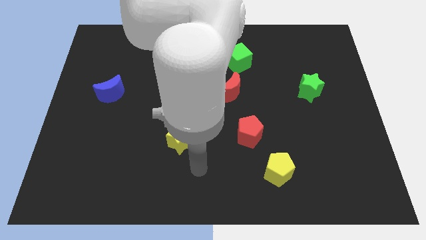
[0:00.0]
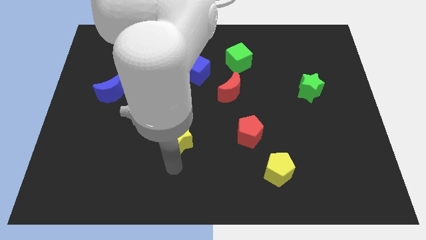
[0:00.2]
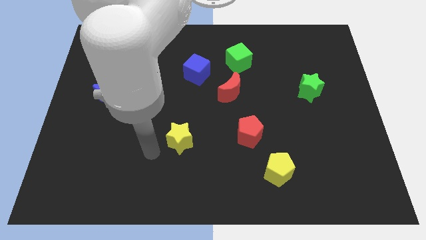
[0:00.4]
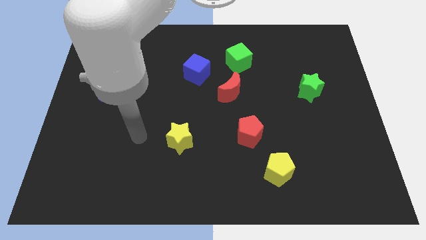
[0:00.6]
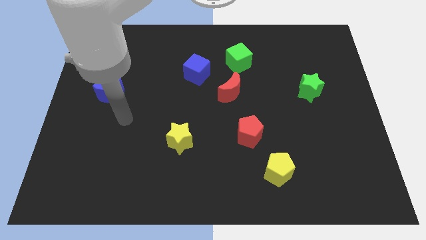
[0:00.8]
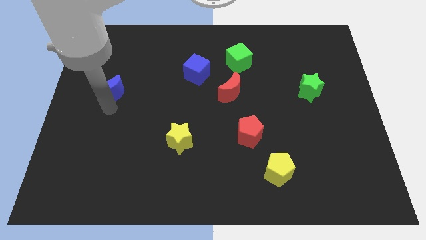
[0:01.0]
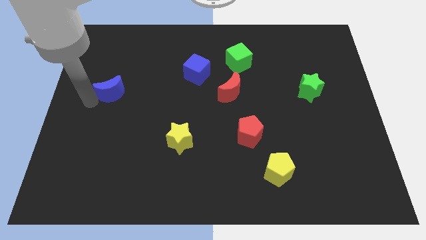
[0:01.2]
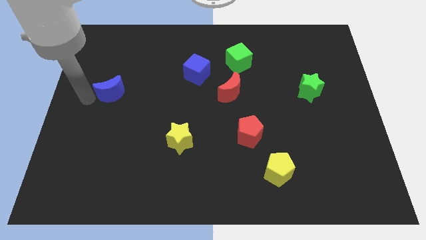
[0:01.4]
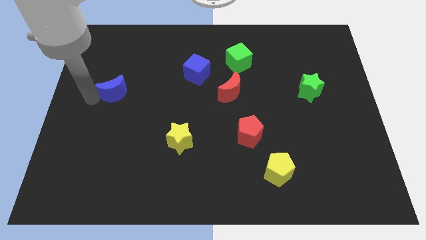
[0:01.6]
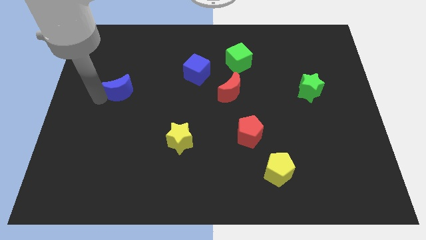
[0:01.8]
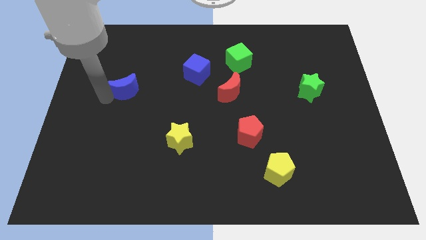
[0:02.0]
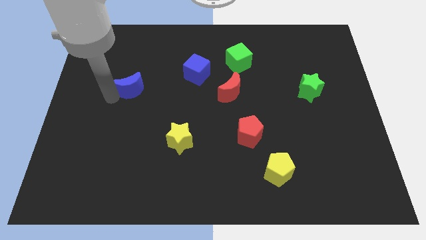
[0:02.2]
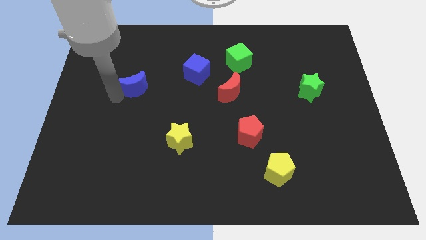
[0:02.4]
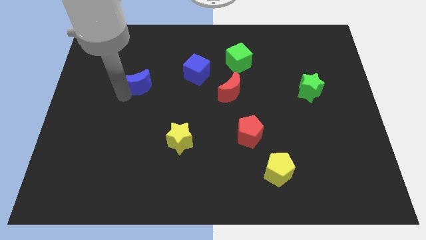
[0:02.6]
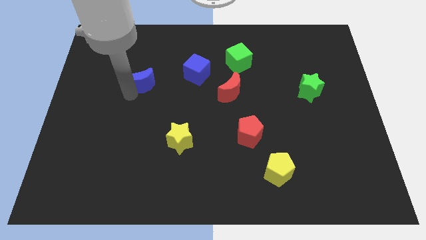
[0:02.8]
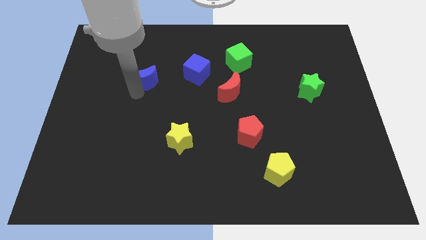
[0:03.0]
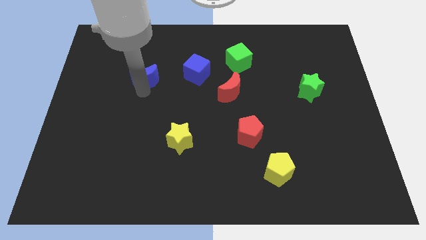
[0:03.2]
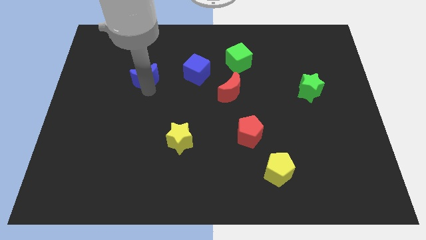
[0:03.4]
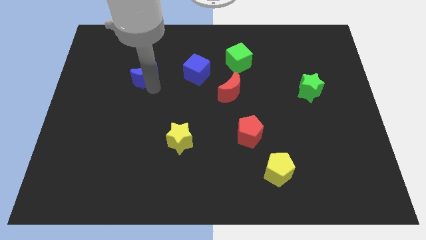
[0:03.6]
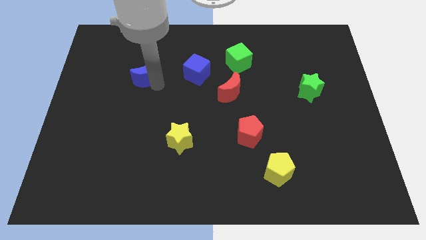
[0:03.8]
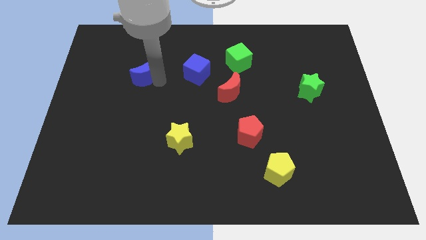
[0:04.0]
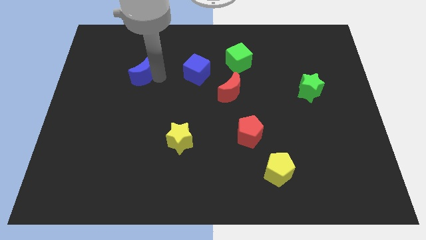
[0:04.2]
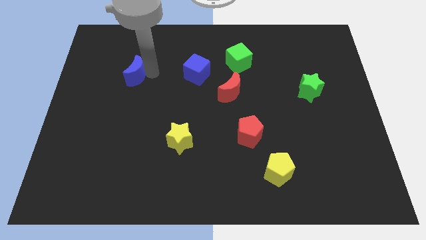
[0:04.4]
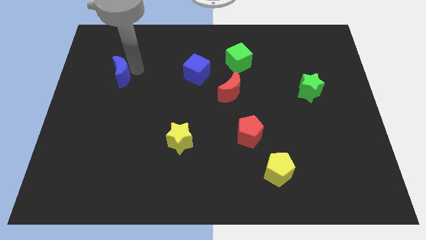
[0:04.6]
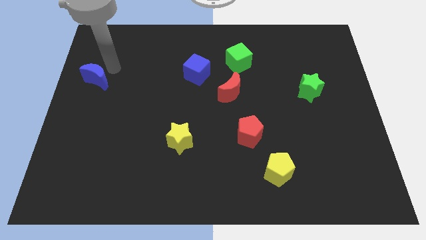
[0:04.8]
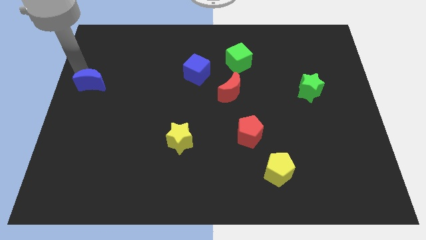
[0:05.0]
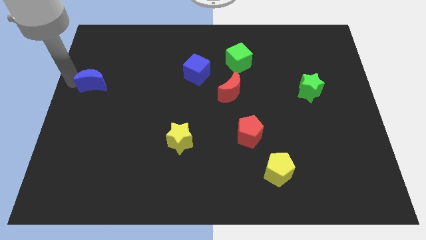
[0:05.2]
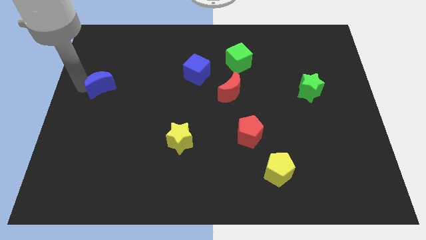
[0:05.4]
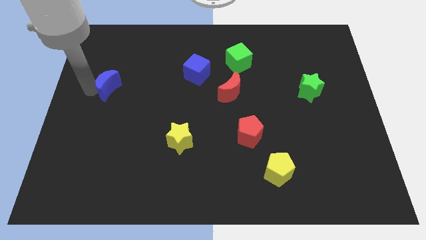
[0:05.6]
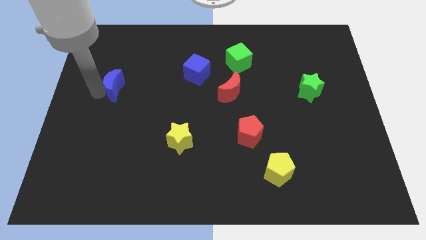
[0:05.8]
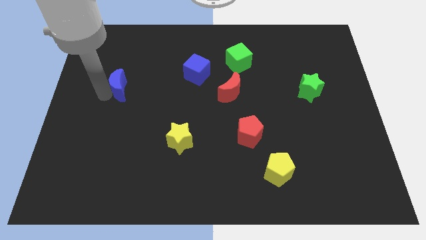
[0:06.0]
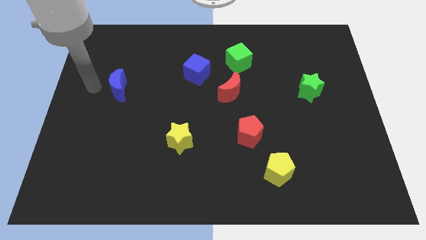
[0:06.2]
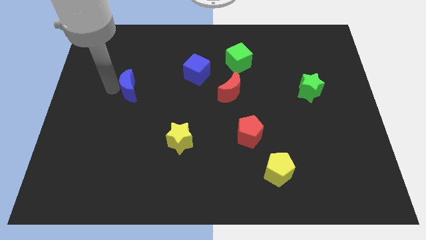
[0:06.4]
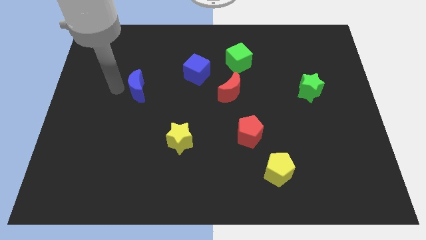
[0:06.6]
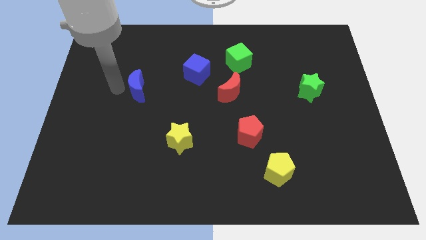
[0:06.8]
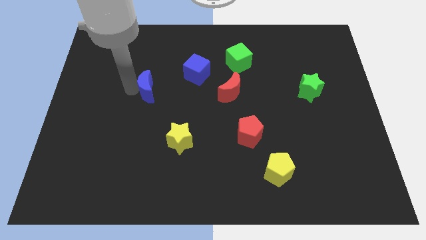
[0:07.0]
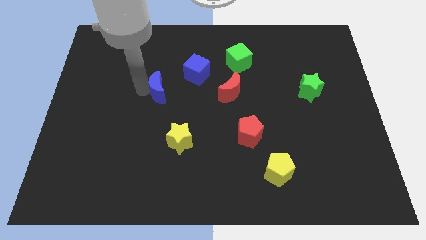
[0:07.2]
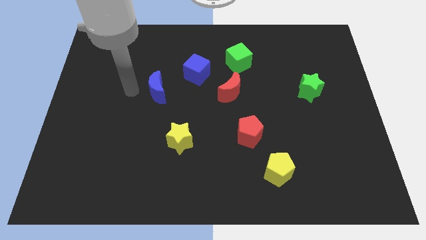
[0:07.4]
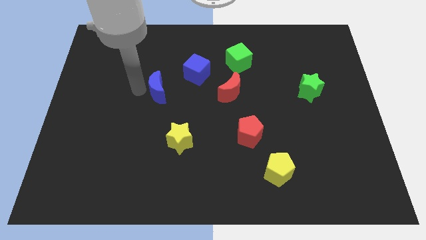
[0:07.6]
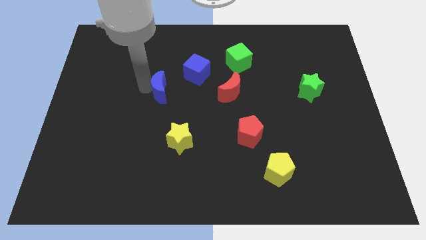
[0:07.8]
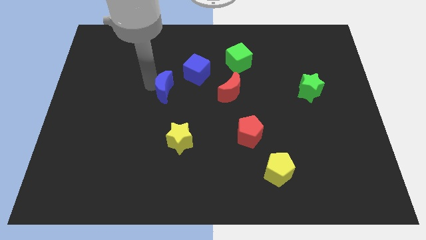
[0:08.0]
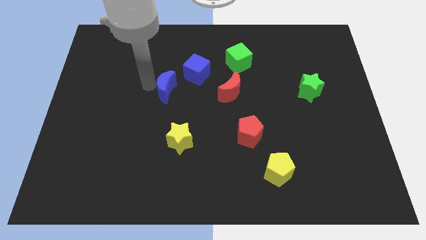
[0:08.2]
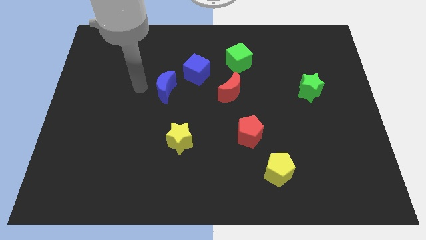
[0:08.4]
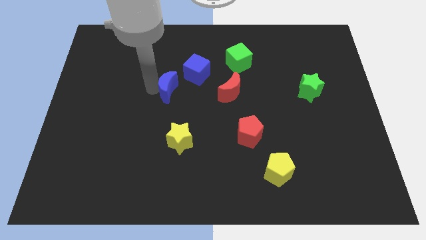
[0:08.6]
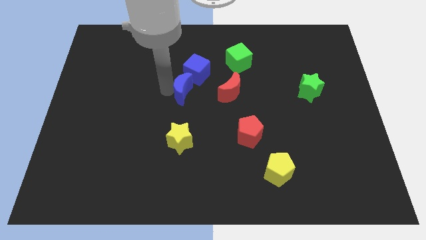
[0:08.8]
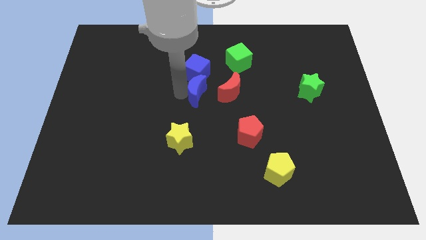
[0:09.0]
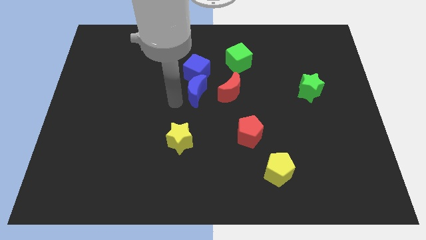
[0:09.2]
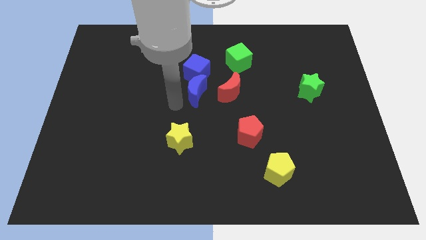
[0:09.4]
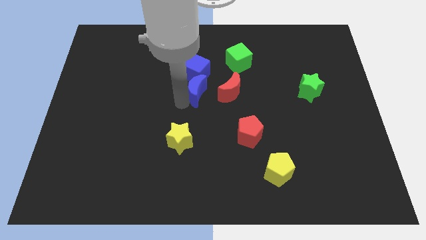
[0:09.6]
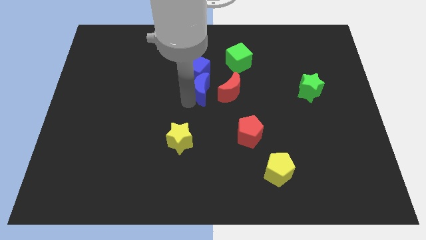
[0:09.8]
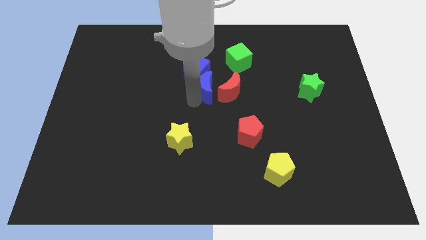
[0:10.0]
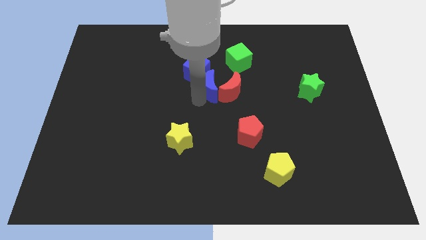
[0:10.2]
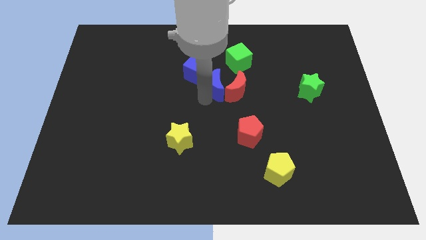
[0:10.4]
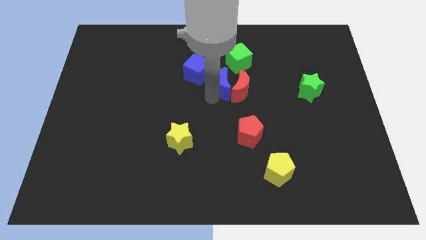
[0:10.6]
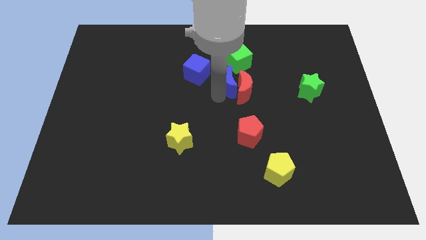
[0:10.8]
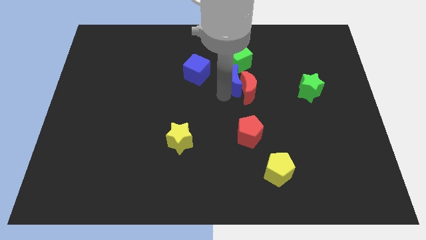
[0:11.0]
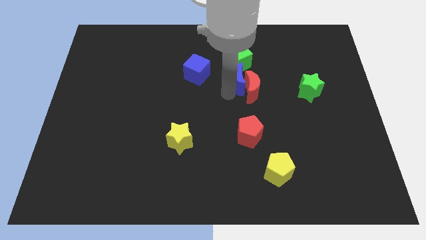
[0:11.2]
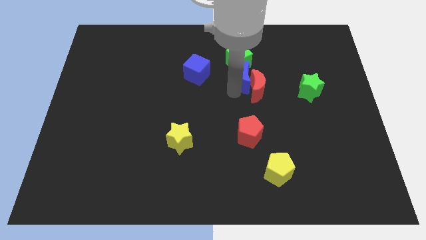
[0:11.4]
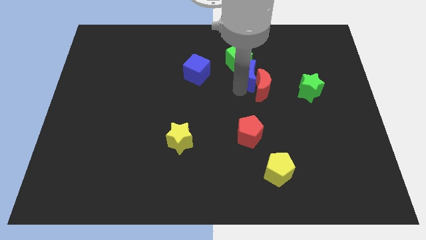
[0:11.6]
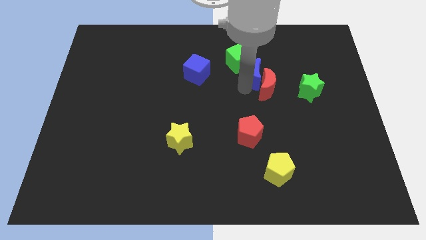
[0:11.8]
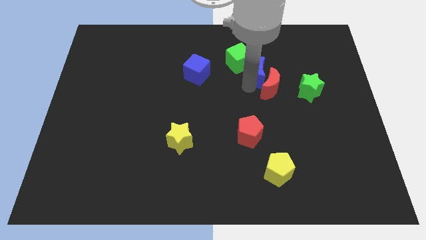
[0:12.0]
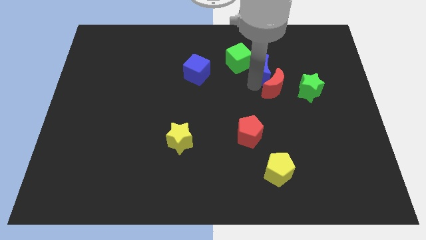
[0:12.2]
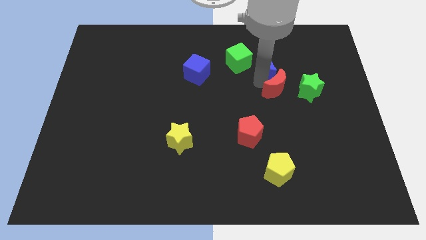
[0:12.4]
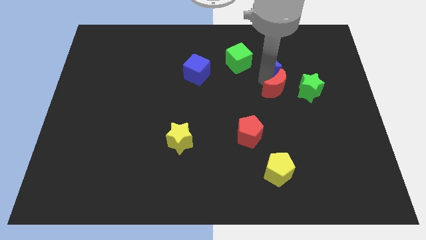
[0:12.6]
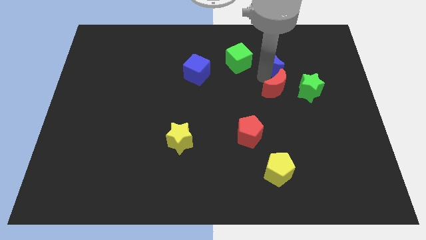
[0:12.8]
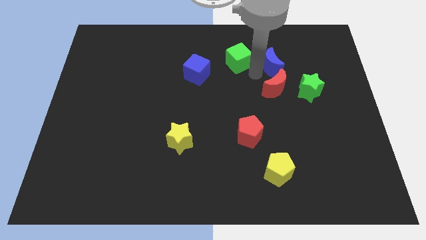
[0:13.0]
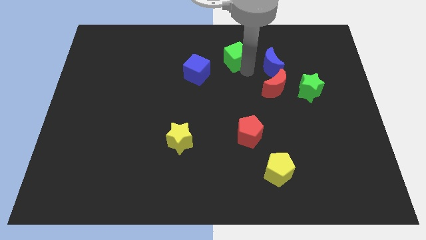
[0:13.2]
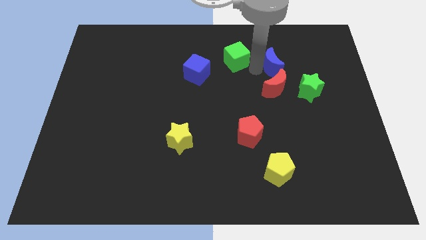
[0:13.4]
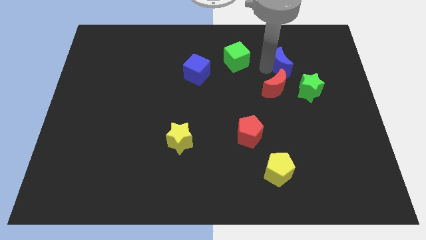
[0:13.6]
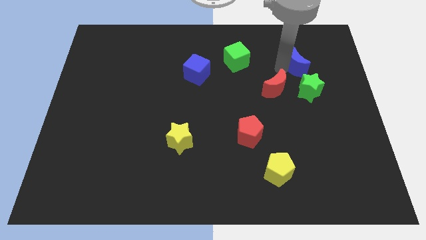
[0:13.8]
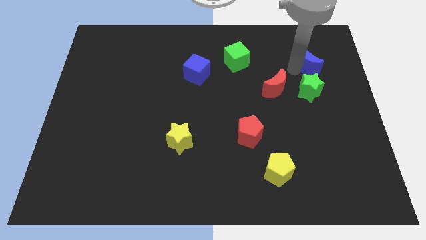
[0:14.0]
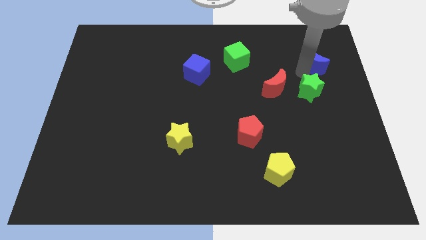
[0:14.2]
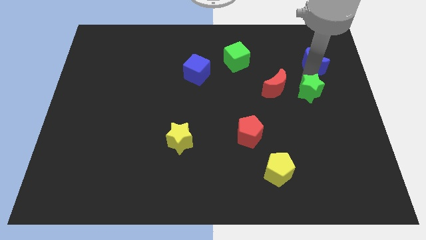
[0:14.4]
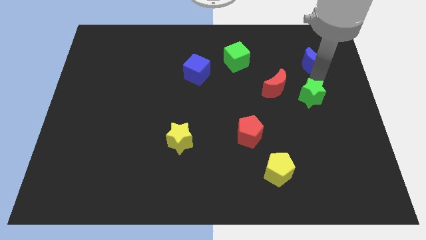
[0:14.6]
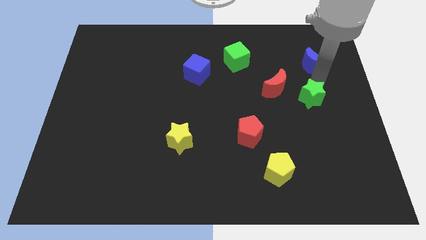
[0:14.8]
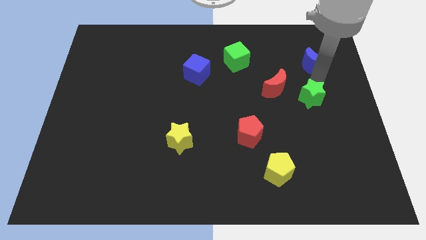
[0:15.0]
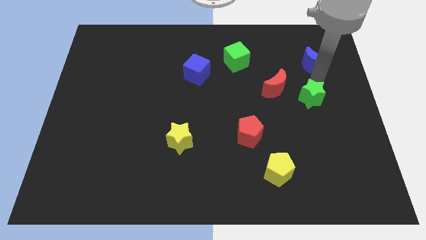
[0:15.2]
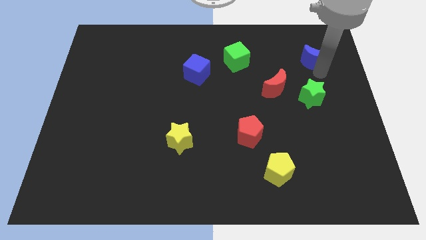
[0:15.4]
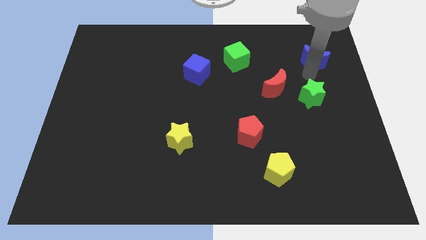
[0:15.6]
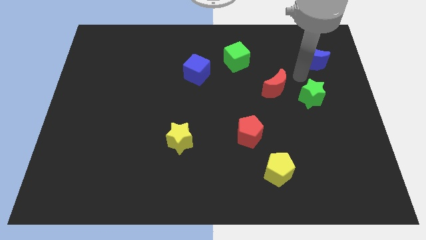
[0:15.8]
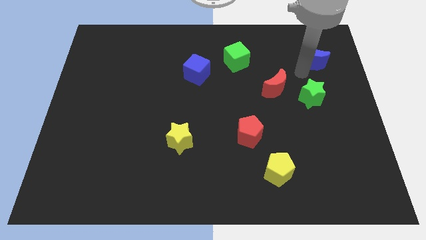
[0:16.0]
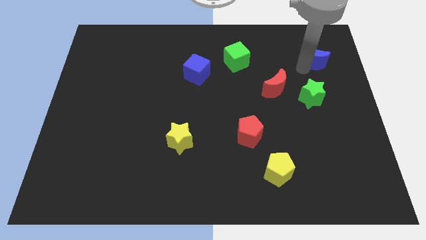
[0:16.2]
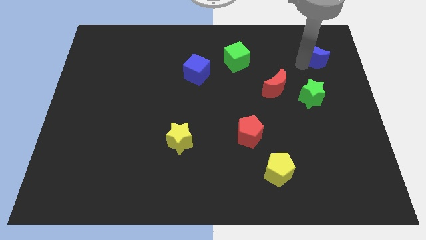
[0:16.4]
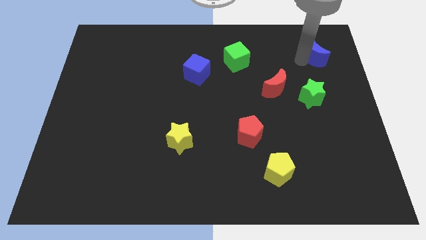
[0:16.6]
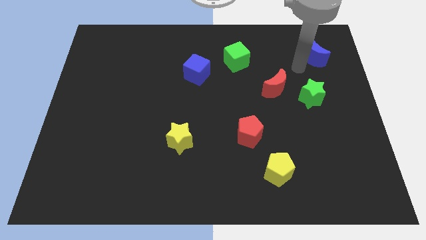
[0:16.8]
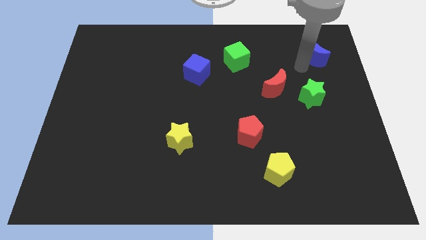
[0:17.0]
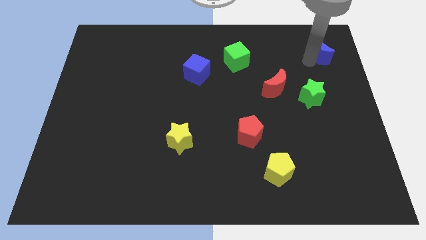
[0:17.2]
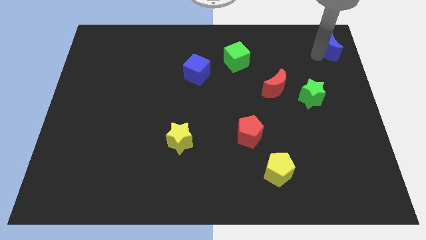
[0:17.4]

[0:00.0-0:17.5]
put the blue moon to the upper right corner
